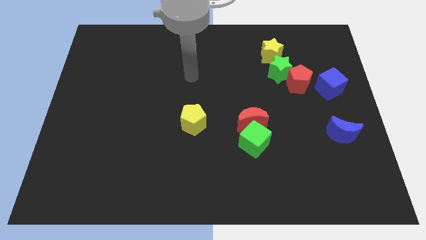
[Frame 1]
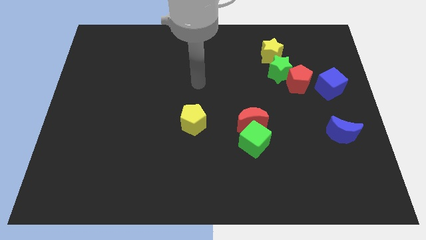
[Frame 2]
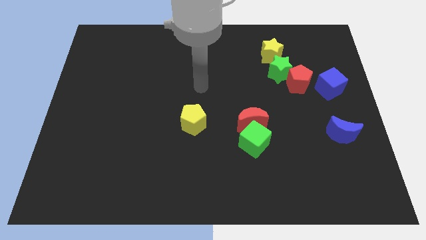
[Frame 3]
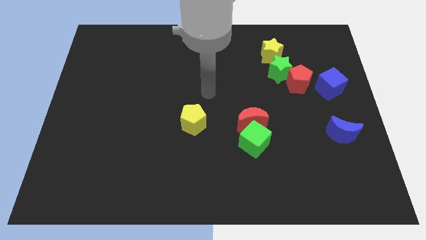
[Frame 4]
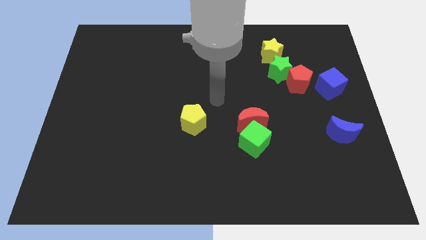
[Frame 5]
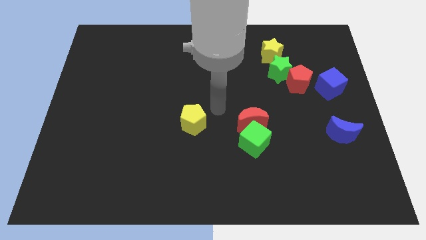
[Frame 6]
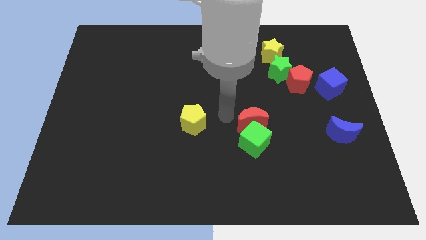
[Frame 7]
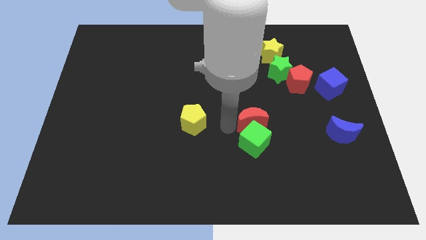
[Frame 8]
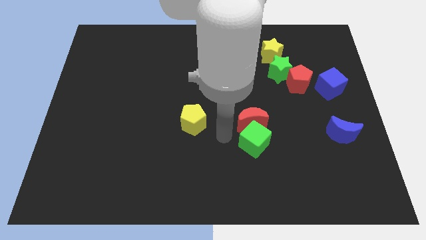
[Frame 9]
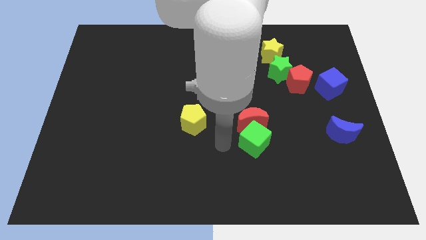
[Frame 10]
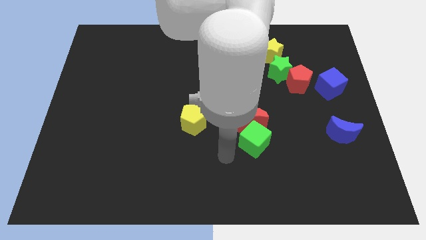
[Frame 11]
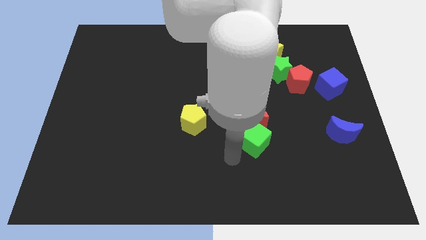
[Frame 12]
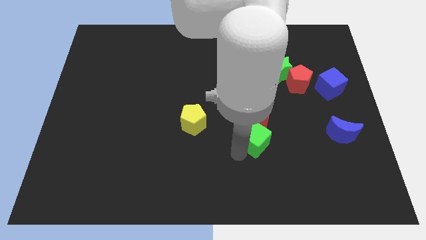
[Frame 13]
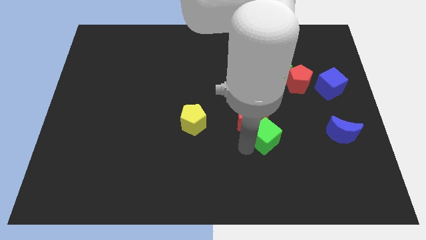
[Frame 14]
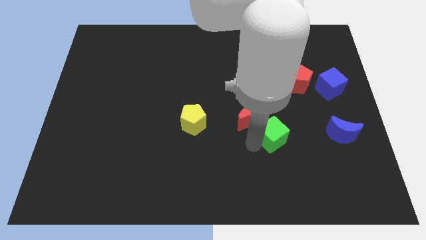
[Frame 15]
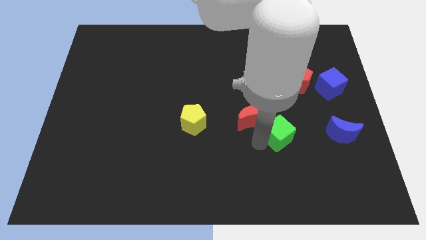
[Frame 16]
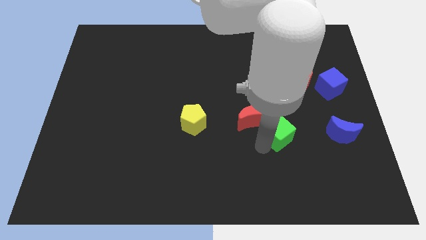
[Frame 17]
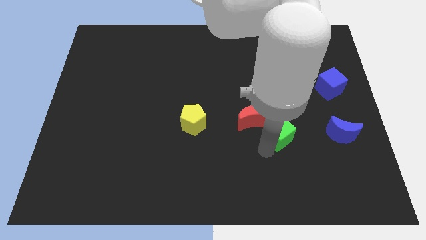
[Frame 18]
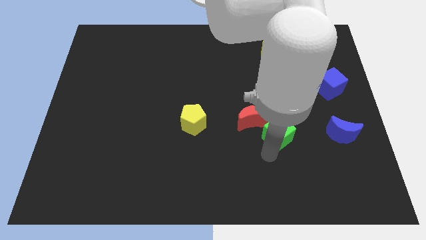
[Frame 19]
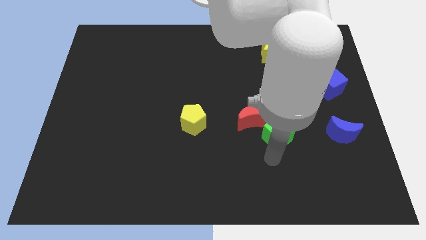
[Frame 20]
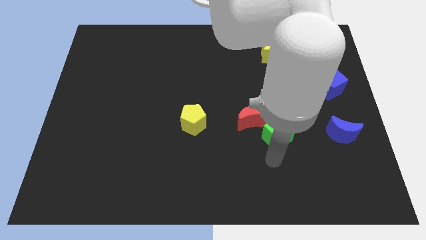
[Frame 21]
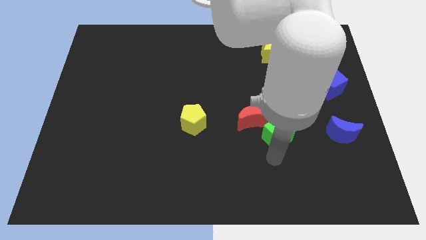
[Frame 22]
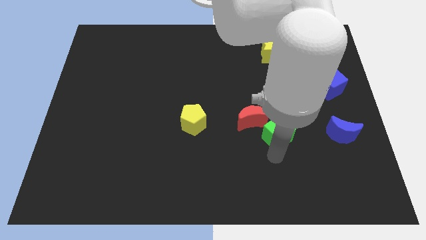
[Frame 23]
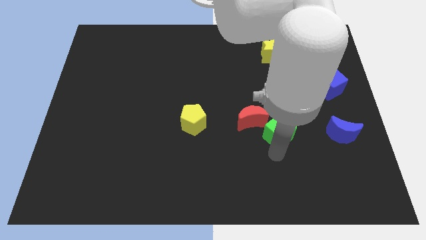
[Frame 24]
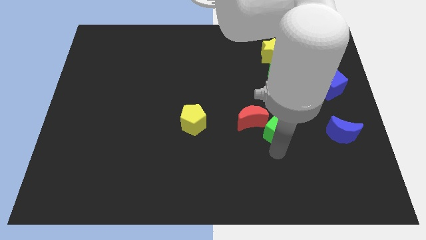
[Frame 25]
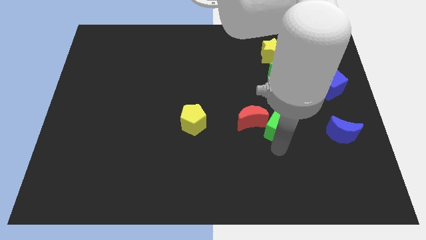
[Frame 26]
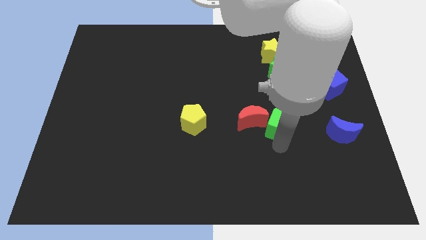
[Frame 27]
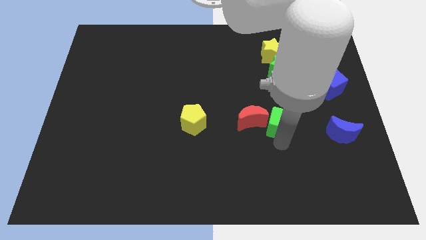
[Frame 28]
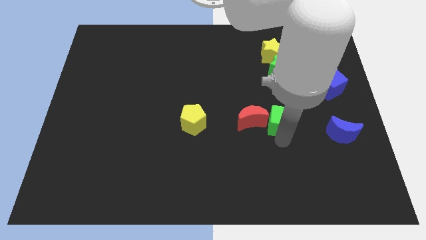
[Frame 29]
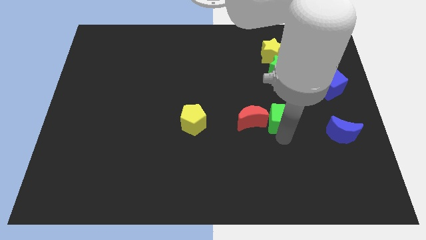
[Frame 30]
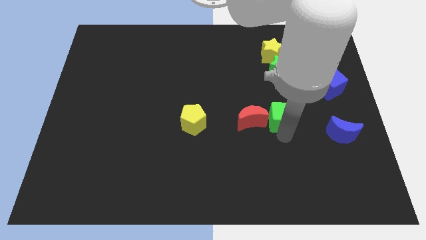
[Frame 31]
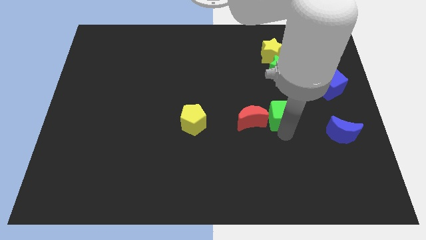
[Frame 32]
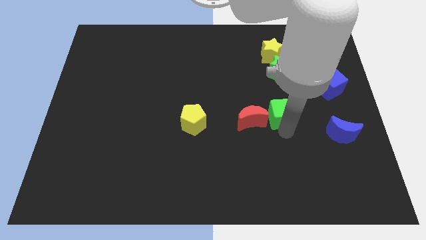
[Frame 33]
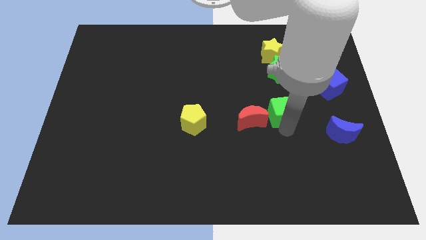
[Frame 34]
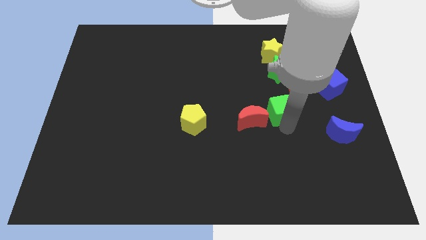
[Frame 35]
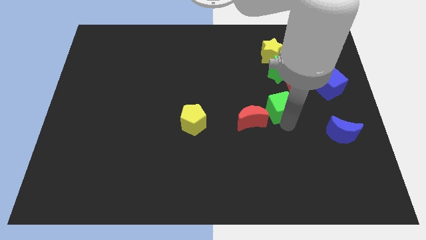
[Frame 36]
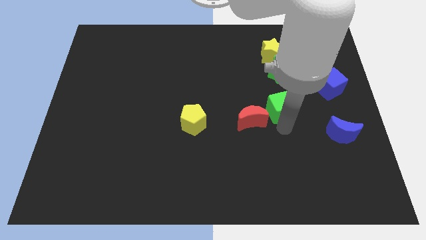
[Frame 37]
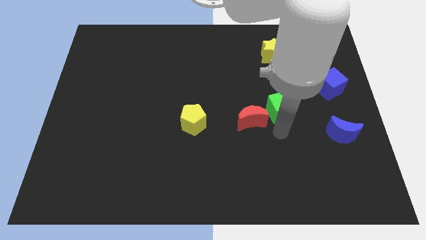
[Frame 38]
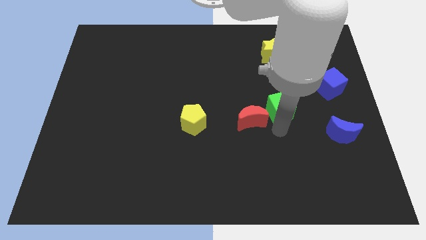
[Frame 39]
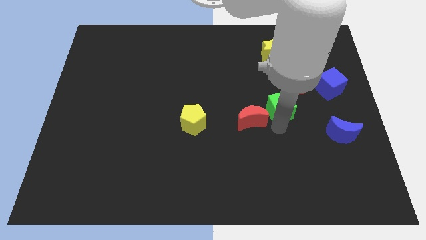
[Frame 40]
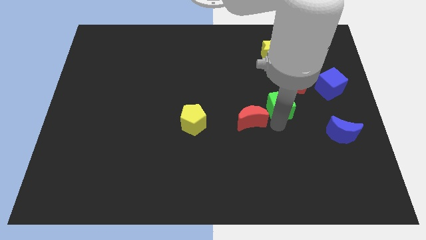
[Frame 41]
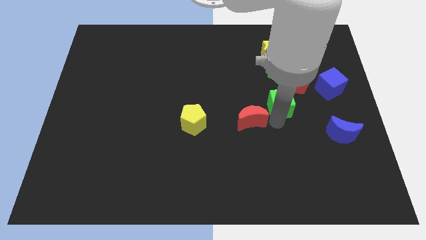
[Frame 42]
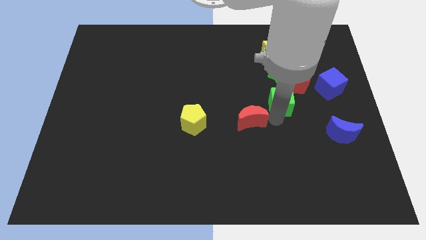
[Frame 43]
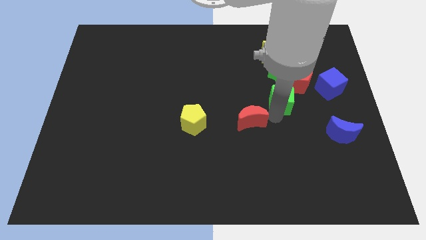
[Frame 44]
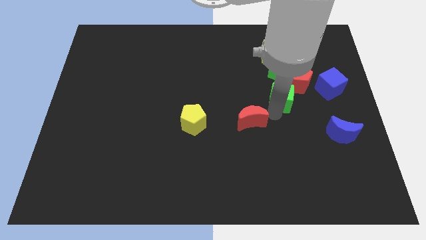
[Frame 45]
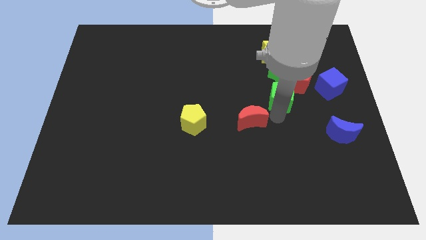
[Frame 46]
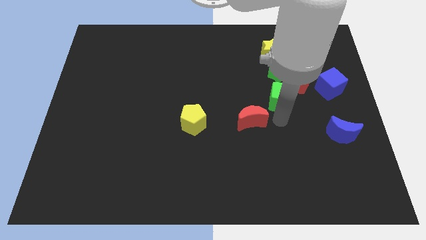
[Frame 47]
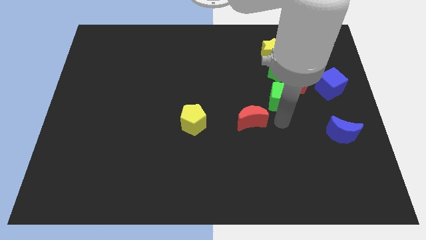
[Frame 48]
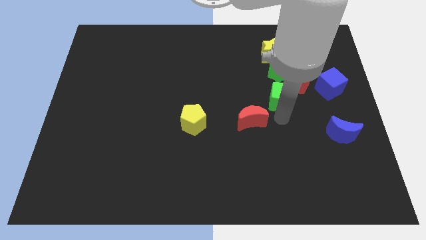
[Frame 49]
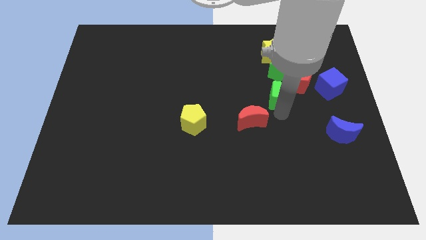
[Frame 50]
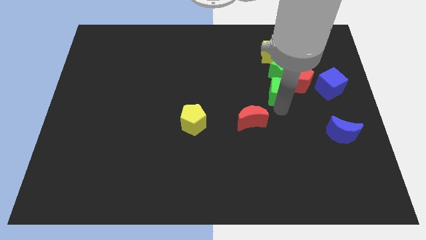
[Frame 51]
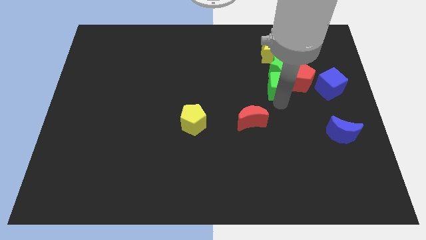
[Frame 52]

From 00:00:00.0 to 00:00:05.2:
put the green cube next to the green star

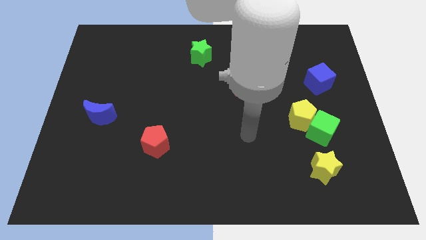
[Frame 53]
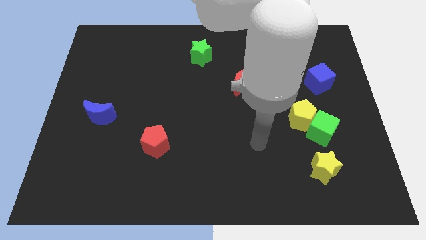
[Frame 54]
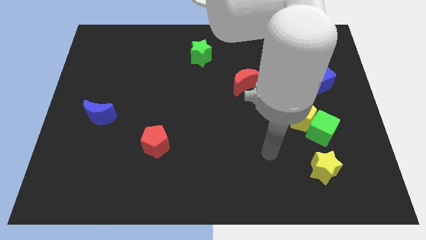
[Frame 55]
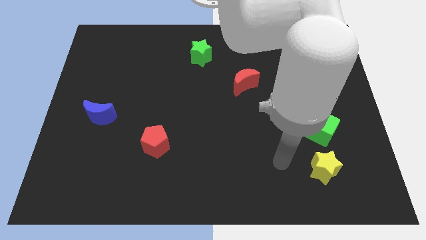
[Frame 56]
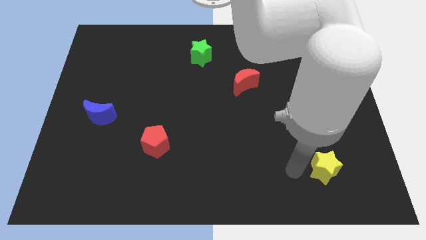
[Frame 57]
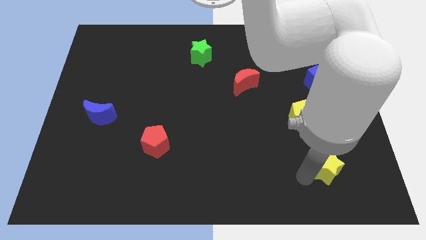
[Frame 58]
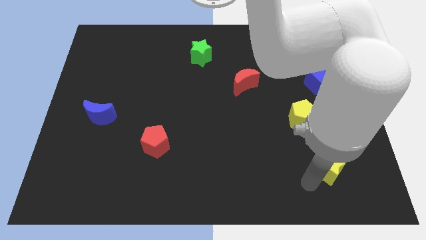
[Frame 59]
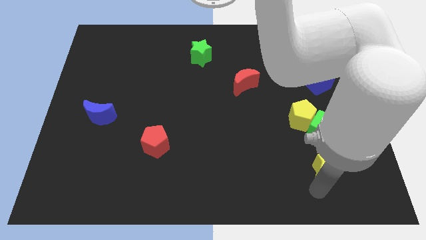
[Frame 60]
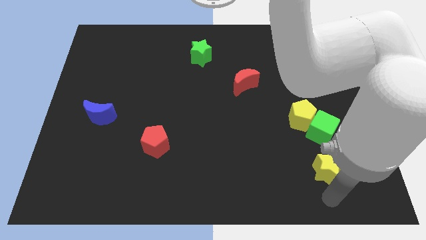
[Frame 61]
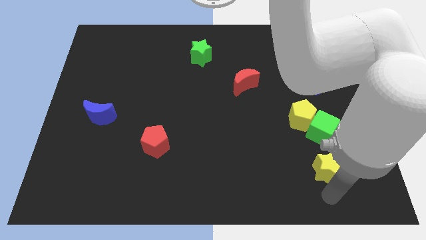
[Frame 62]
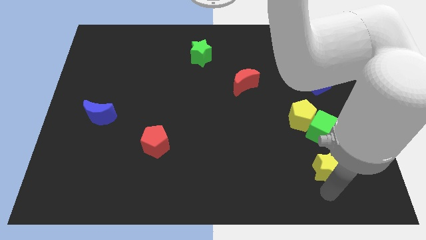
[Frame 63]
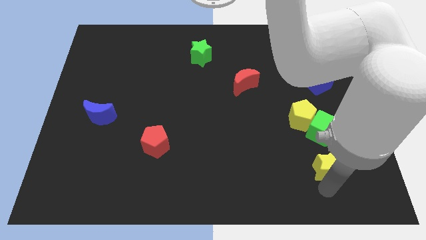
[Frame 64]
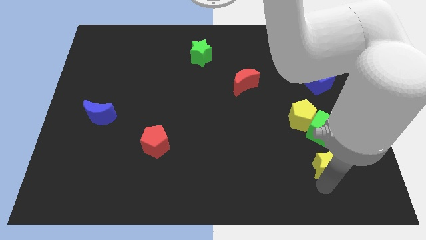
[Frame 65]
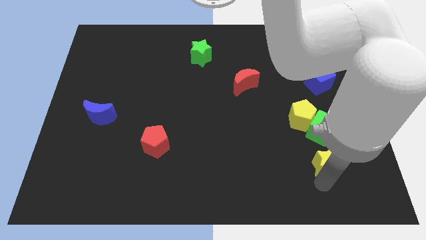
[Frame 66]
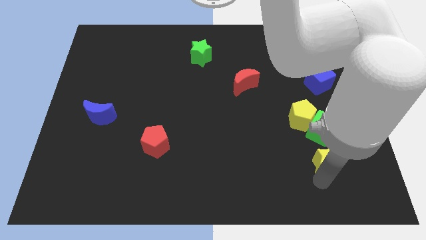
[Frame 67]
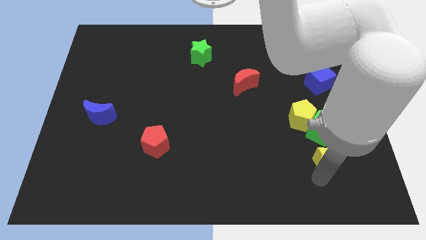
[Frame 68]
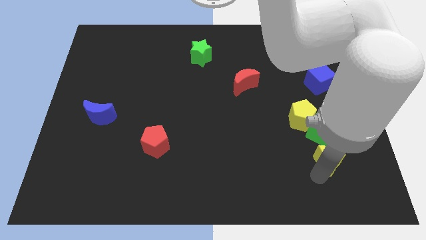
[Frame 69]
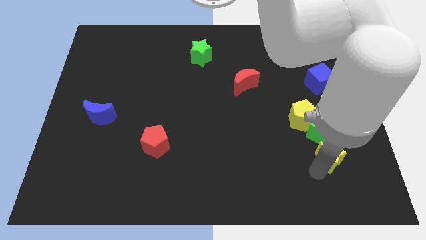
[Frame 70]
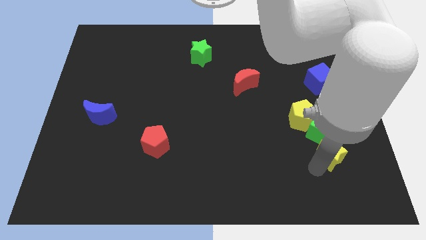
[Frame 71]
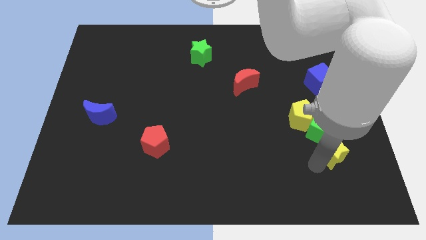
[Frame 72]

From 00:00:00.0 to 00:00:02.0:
put the yellow star close to the green cube
